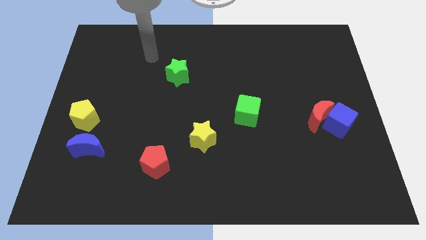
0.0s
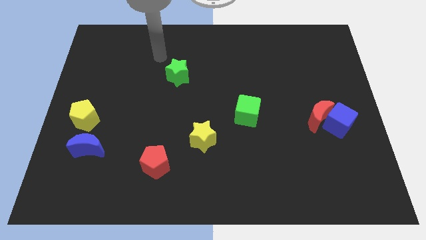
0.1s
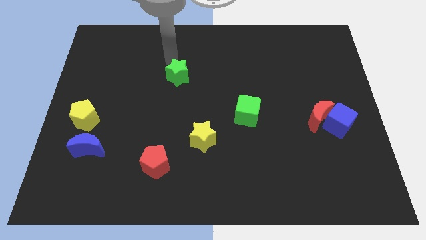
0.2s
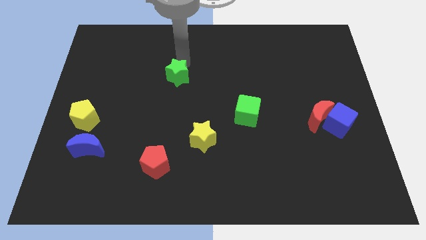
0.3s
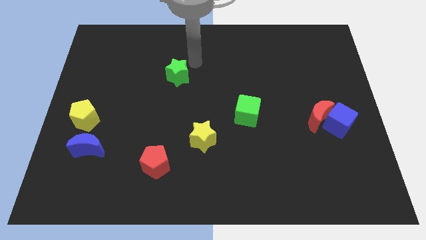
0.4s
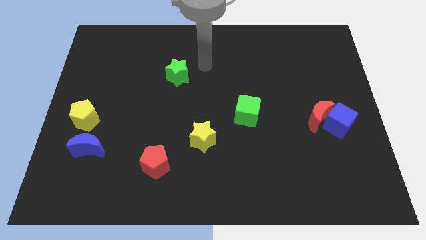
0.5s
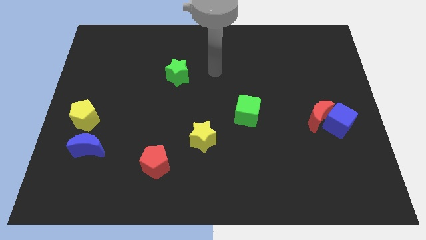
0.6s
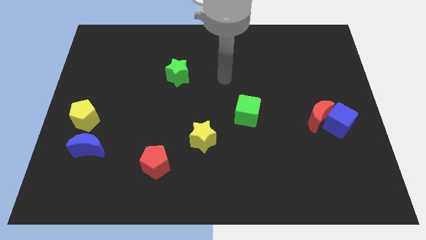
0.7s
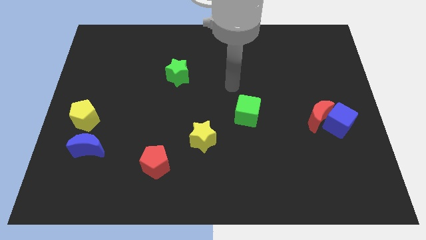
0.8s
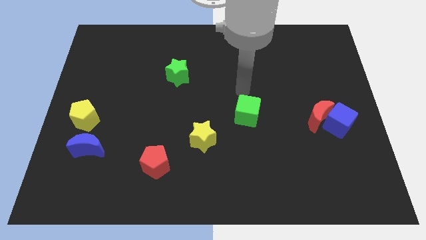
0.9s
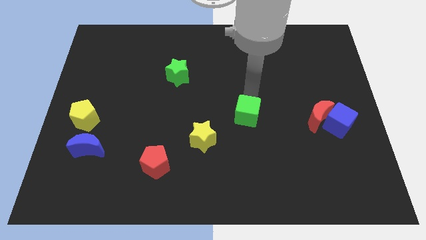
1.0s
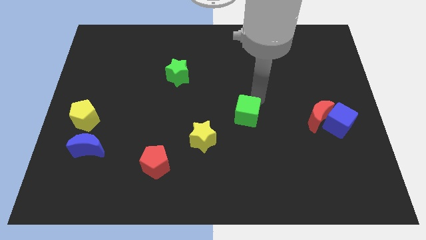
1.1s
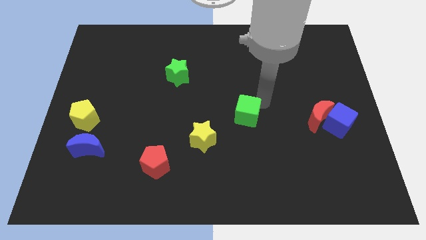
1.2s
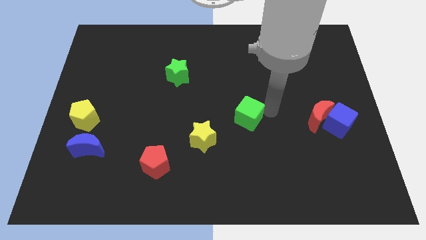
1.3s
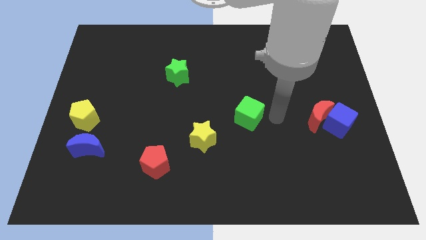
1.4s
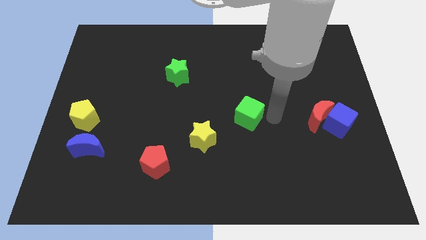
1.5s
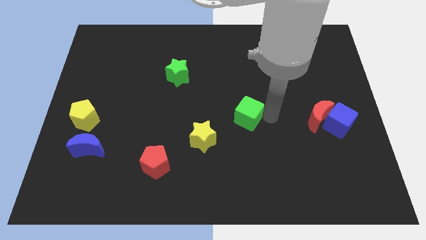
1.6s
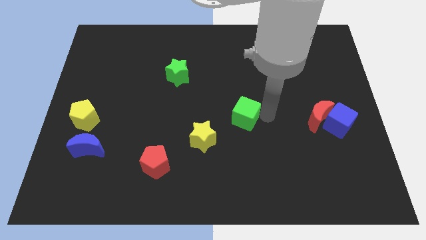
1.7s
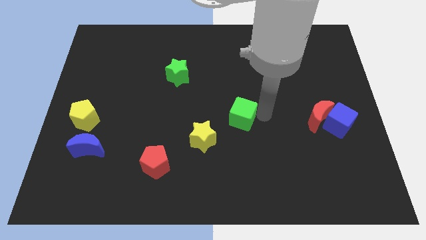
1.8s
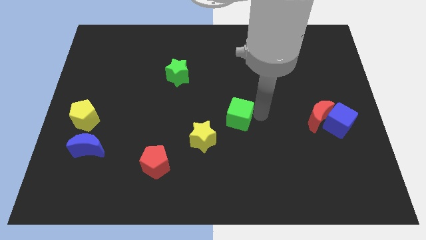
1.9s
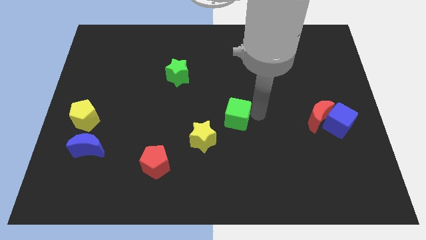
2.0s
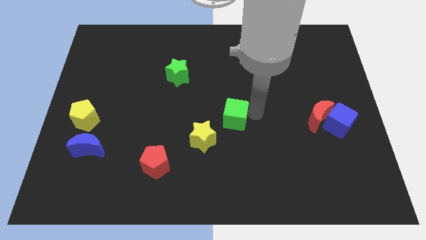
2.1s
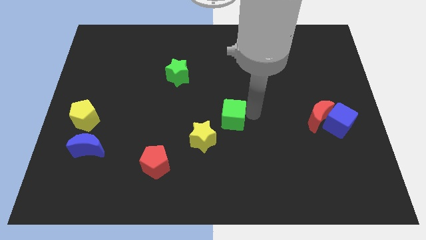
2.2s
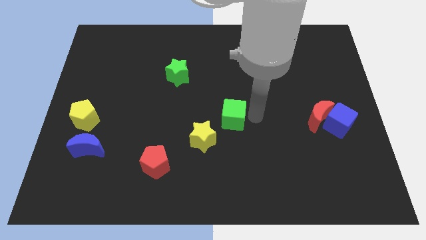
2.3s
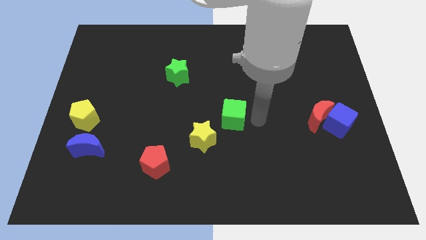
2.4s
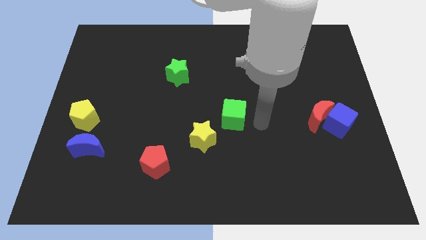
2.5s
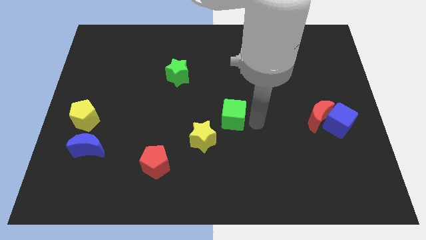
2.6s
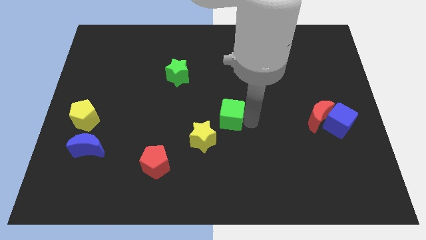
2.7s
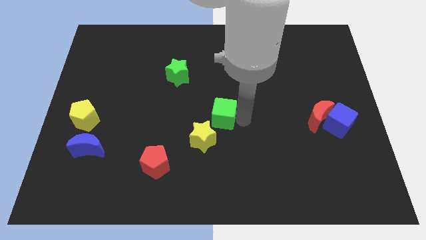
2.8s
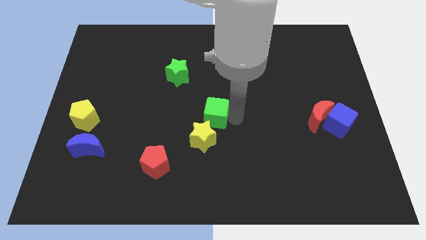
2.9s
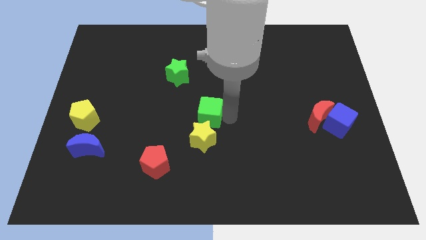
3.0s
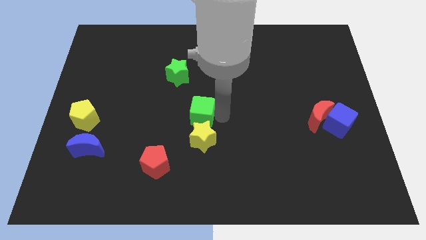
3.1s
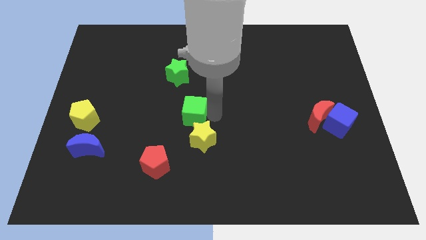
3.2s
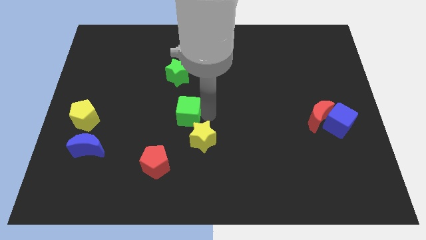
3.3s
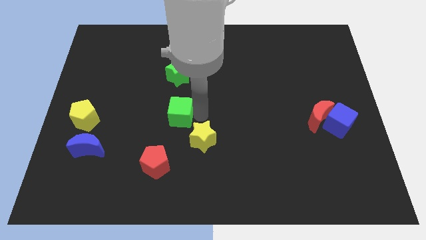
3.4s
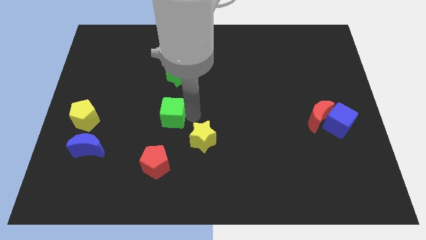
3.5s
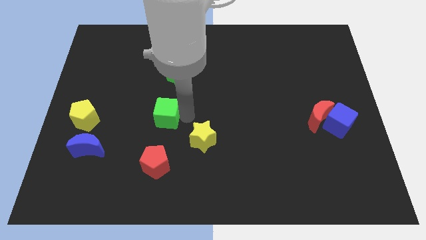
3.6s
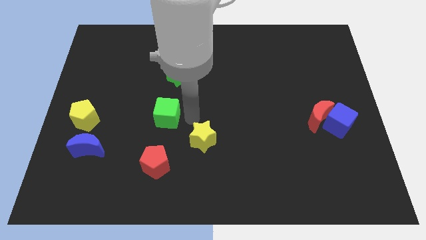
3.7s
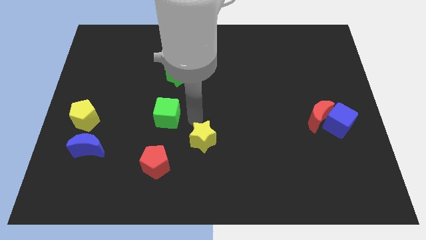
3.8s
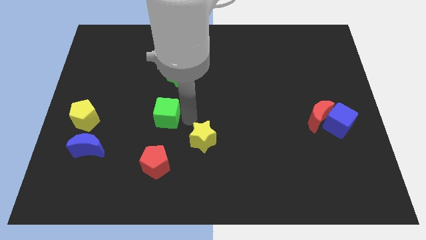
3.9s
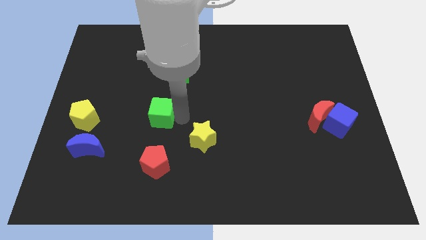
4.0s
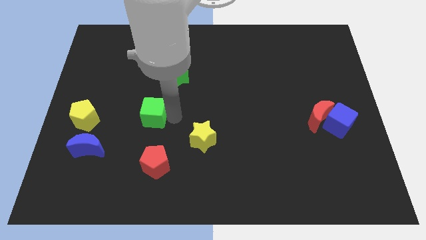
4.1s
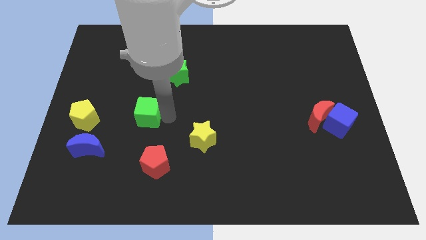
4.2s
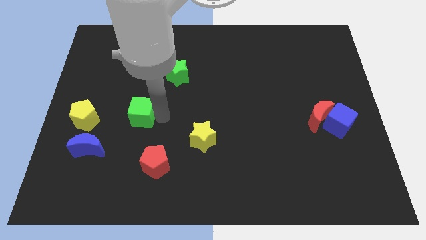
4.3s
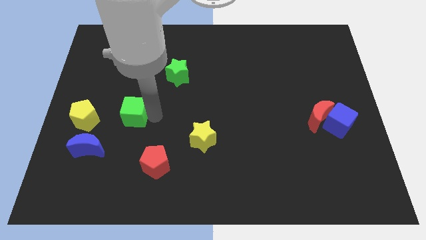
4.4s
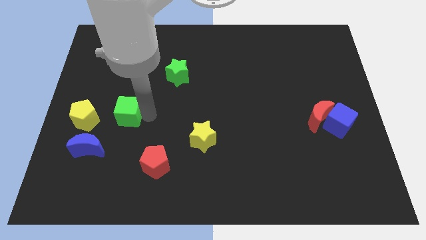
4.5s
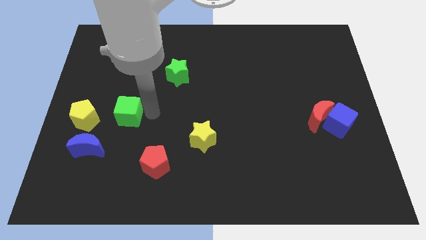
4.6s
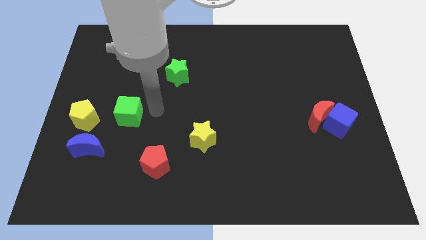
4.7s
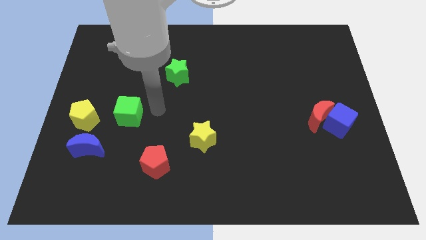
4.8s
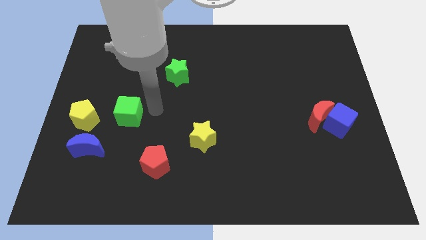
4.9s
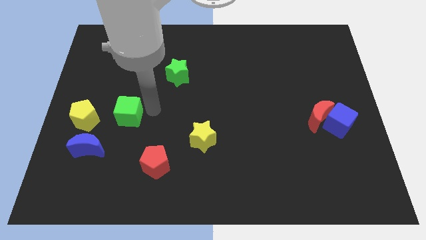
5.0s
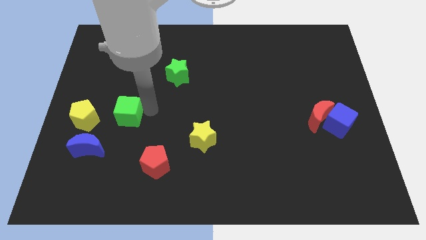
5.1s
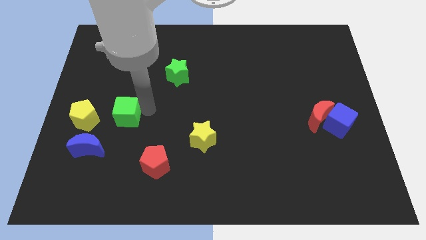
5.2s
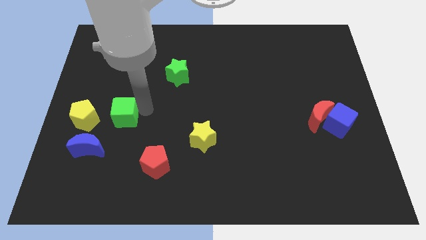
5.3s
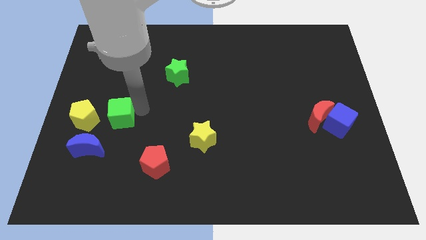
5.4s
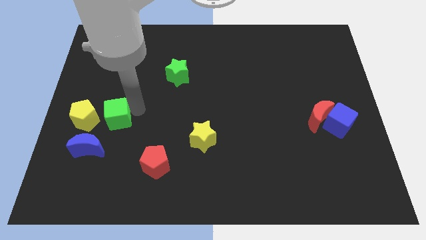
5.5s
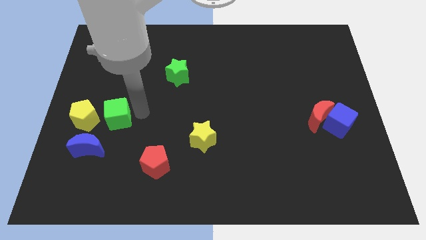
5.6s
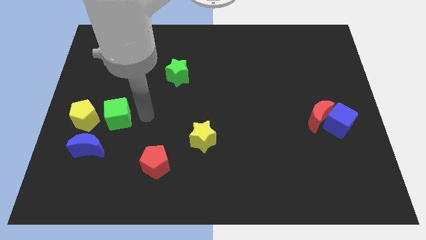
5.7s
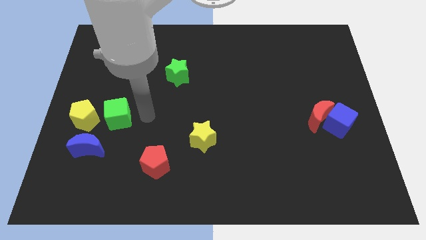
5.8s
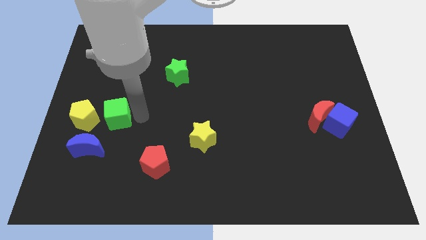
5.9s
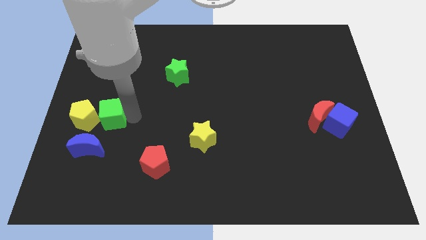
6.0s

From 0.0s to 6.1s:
slide the green cube towards the yellow pentagon
